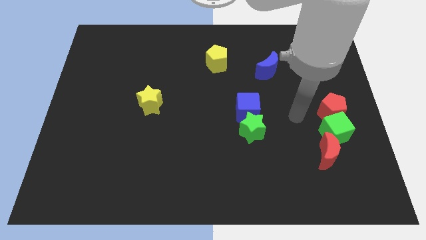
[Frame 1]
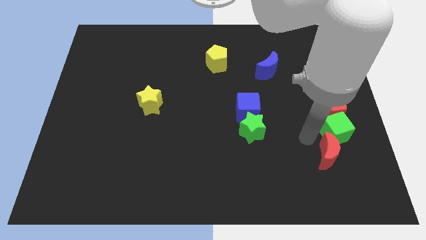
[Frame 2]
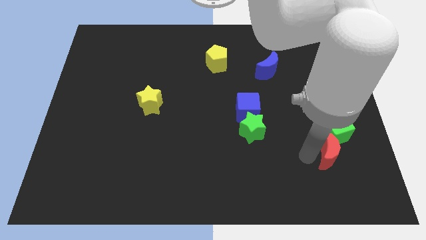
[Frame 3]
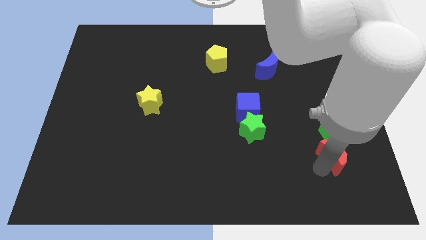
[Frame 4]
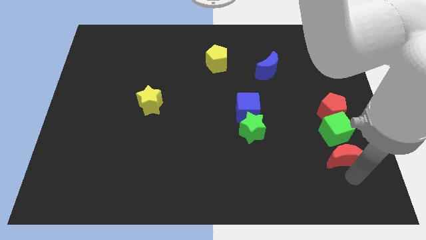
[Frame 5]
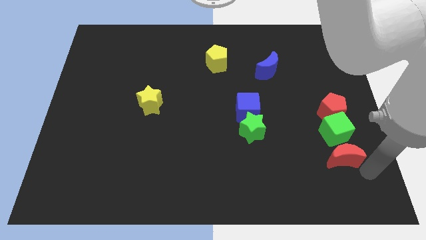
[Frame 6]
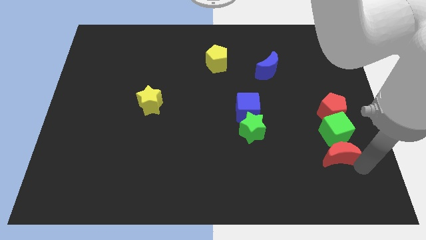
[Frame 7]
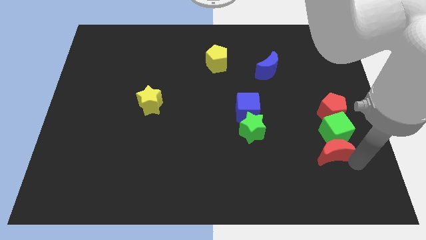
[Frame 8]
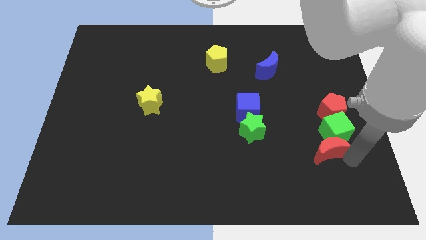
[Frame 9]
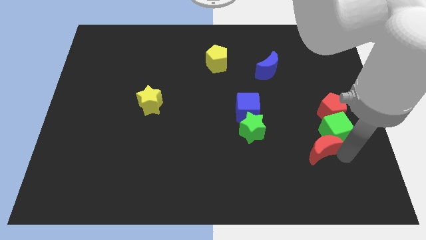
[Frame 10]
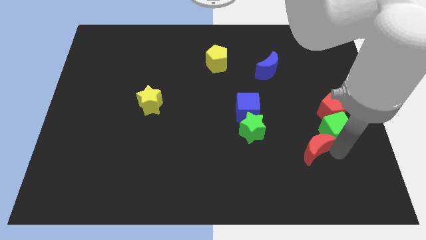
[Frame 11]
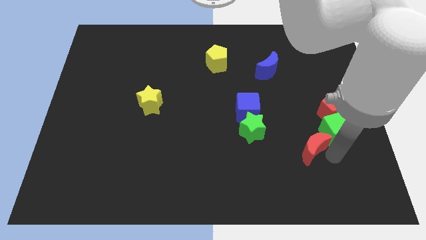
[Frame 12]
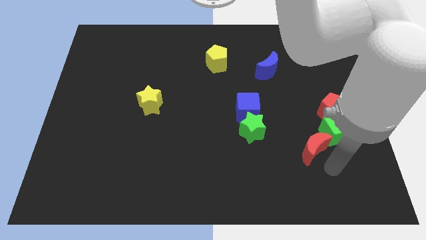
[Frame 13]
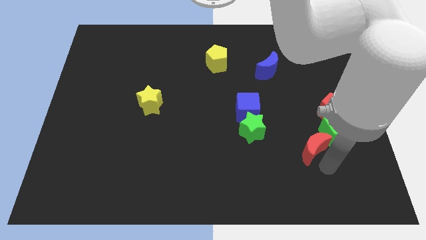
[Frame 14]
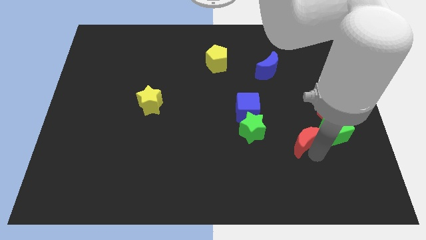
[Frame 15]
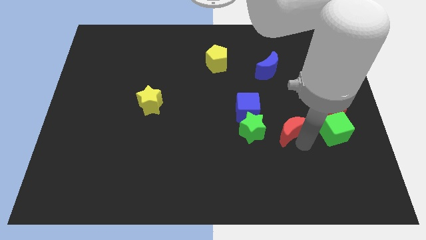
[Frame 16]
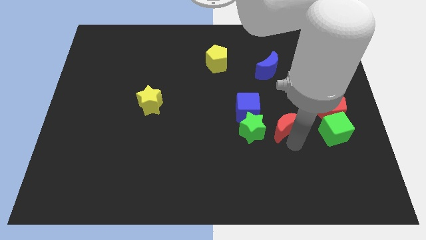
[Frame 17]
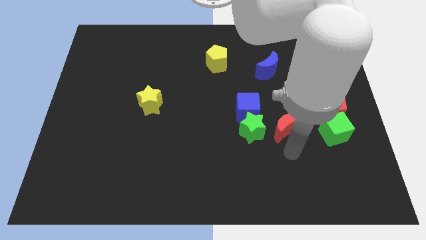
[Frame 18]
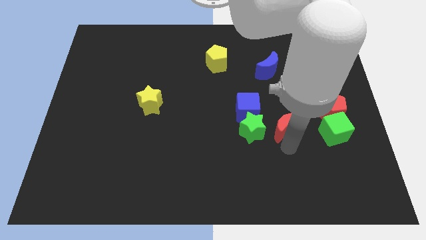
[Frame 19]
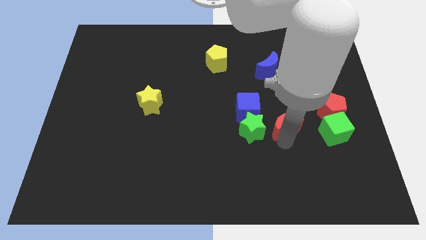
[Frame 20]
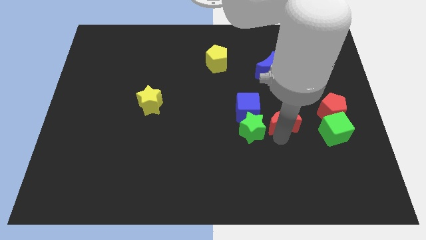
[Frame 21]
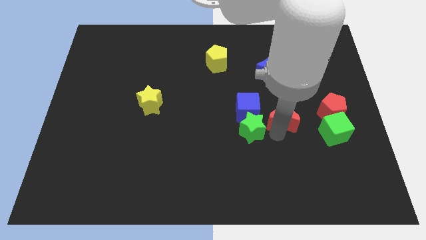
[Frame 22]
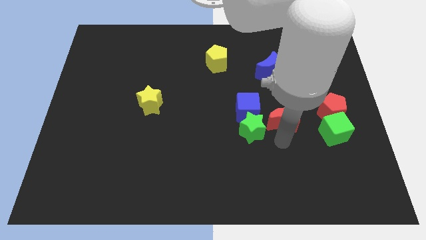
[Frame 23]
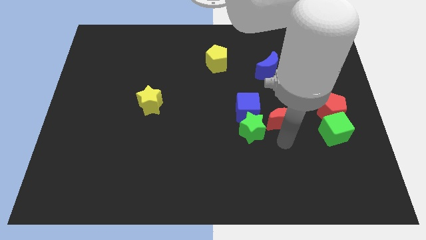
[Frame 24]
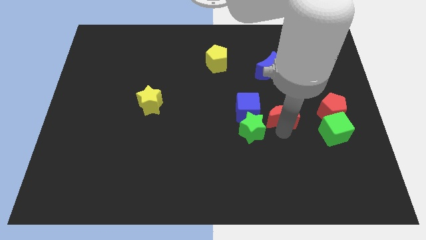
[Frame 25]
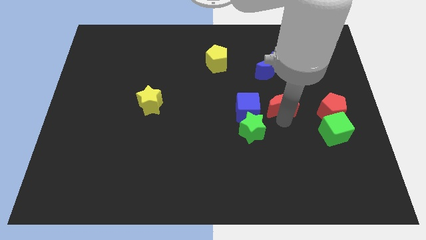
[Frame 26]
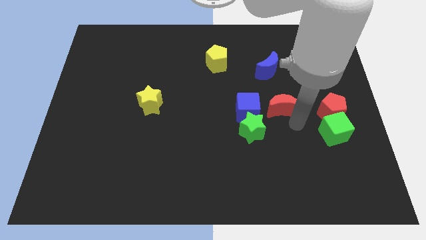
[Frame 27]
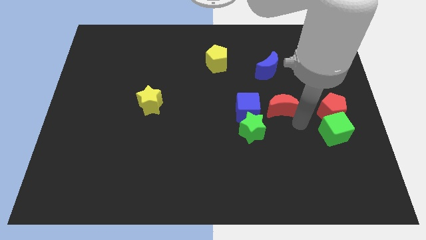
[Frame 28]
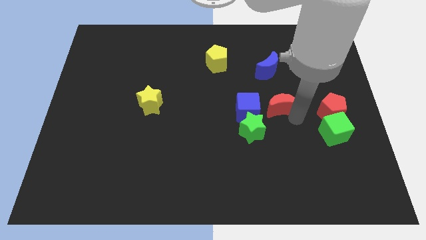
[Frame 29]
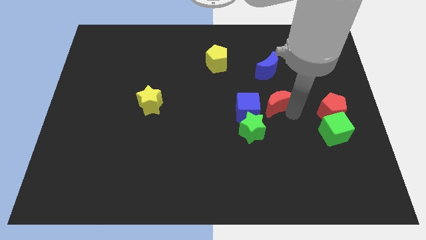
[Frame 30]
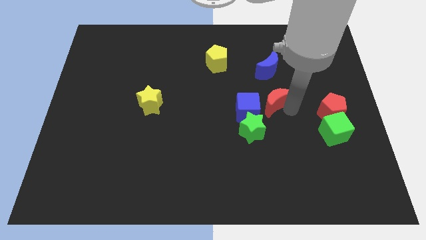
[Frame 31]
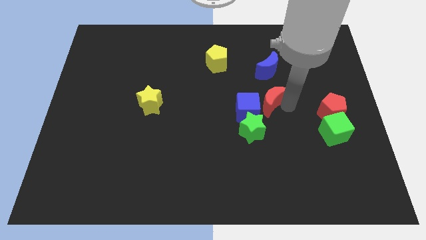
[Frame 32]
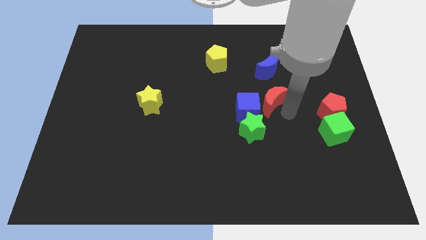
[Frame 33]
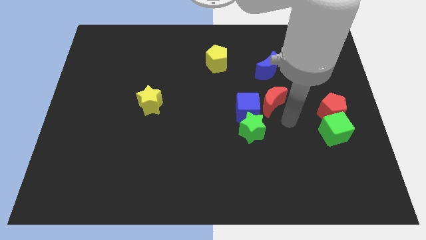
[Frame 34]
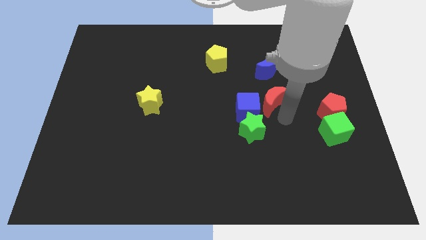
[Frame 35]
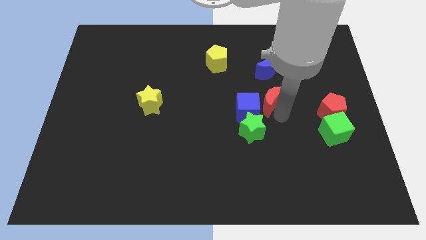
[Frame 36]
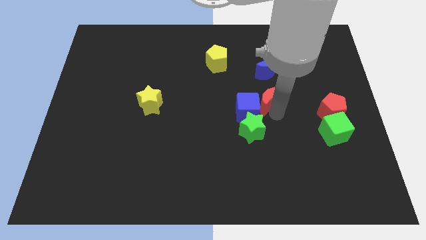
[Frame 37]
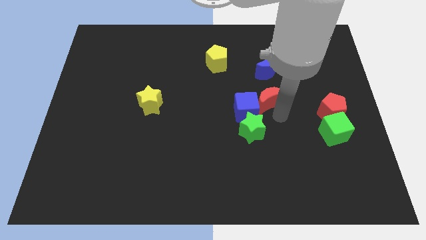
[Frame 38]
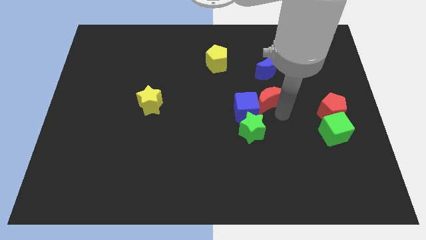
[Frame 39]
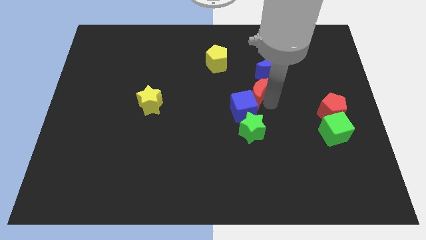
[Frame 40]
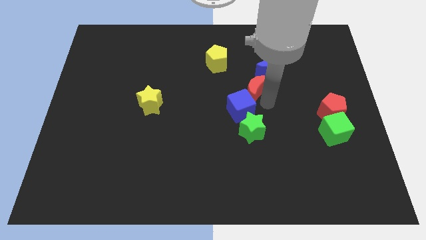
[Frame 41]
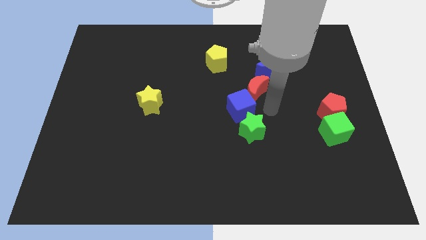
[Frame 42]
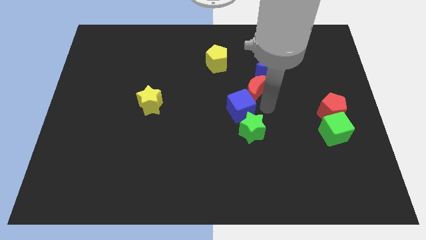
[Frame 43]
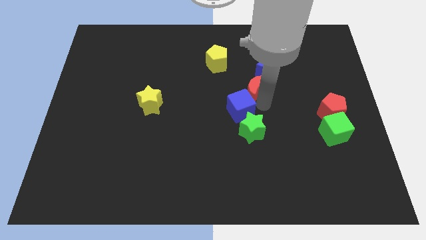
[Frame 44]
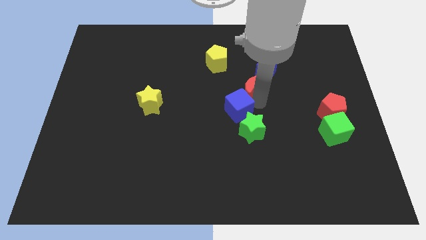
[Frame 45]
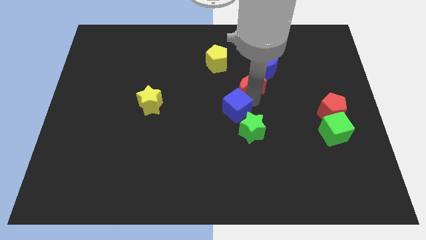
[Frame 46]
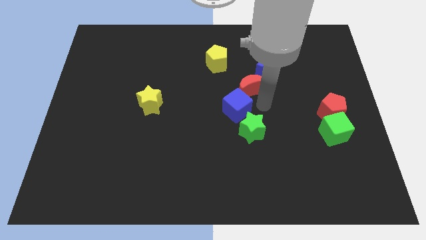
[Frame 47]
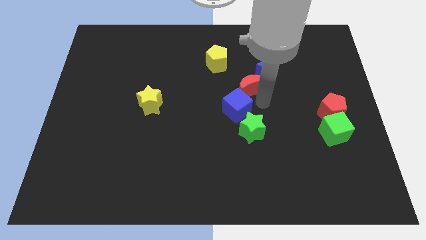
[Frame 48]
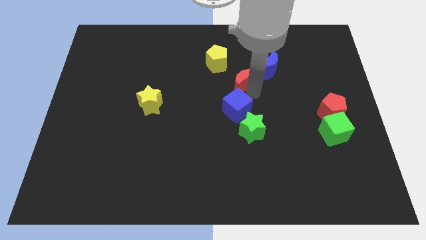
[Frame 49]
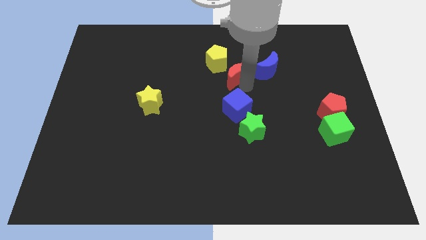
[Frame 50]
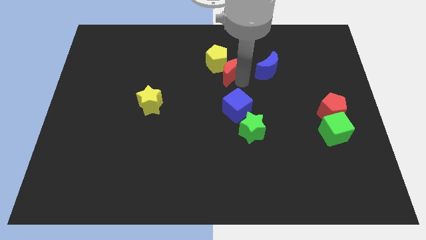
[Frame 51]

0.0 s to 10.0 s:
push the red moon towards the yellow pentagon

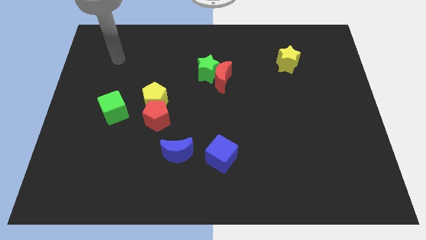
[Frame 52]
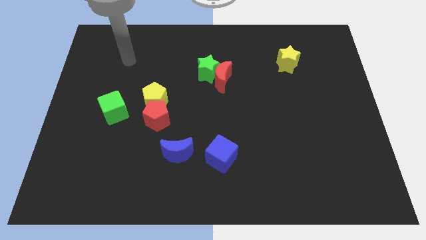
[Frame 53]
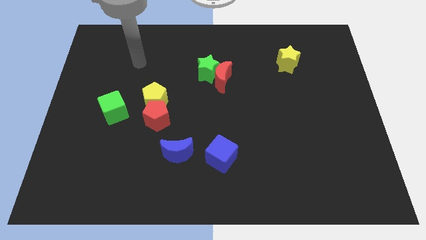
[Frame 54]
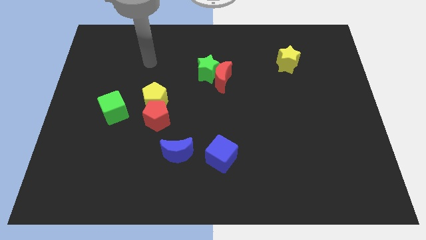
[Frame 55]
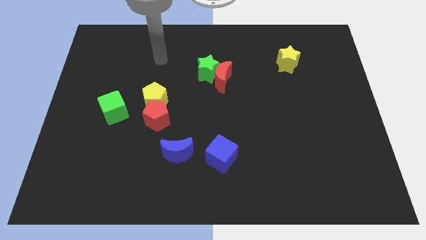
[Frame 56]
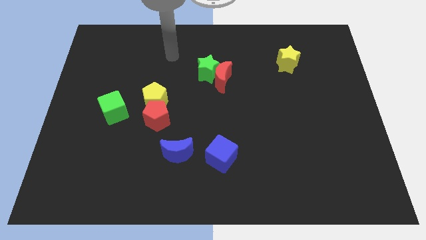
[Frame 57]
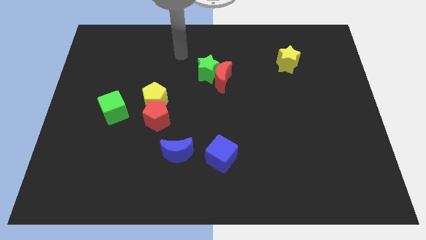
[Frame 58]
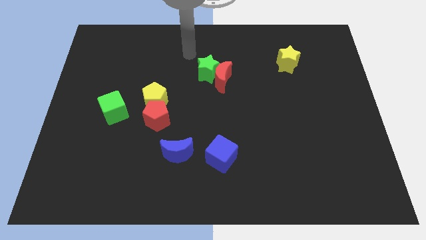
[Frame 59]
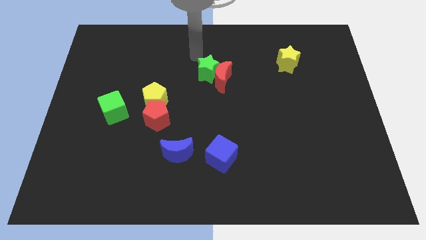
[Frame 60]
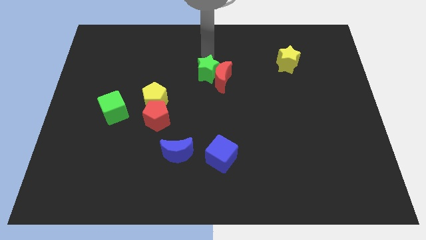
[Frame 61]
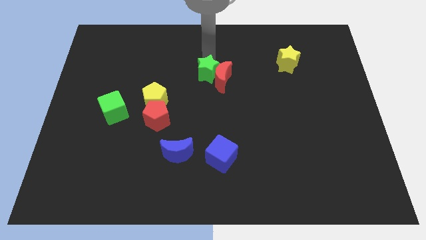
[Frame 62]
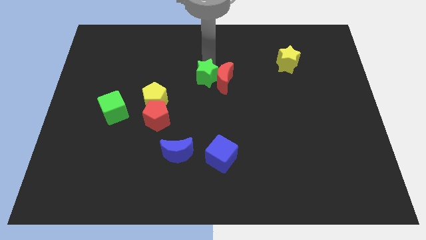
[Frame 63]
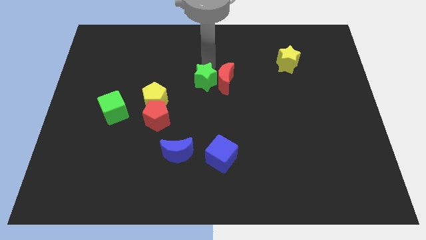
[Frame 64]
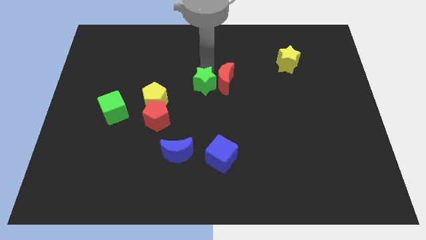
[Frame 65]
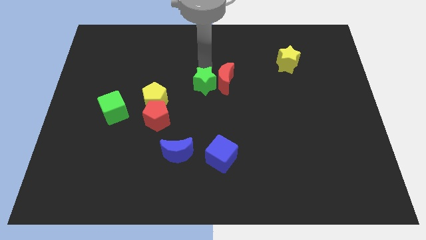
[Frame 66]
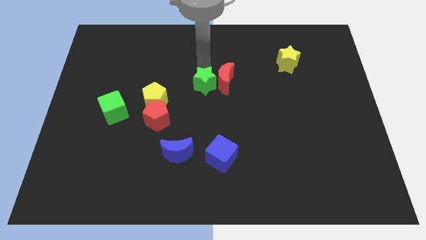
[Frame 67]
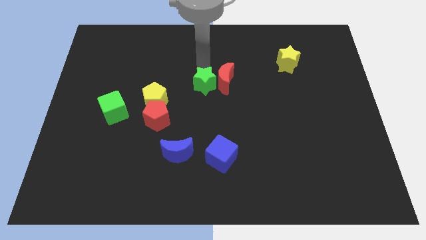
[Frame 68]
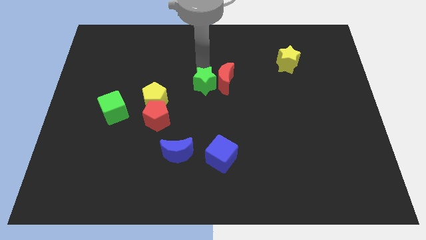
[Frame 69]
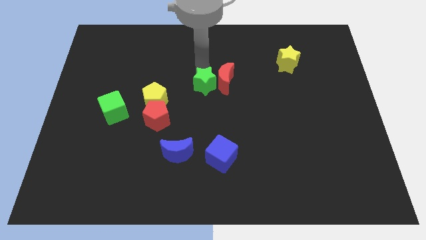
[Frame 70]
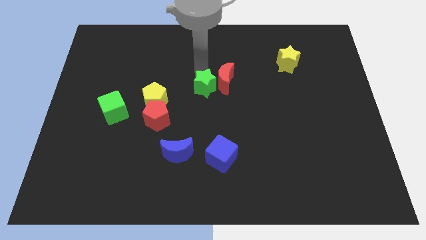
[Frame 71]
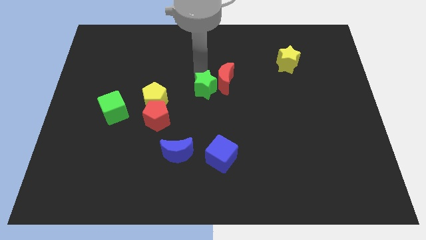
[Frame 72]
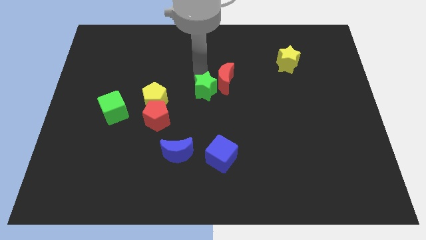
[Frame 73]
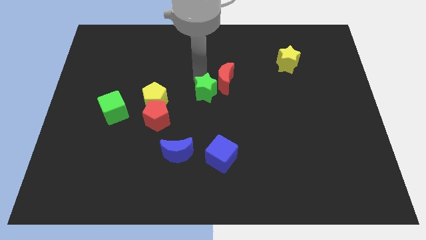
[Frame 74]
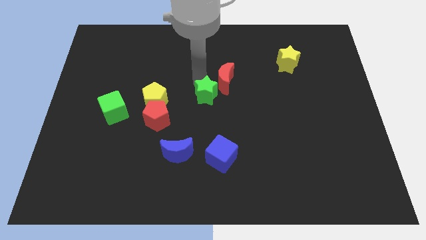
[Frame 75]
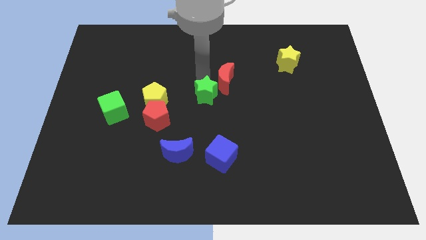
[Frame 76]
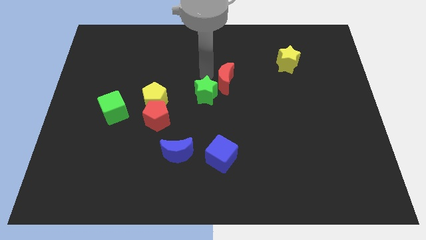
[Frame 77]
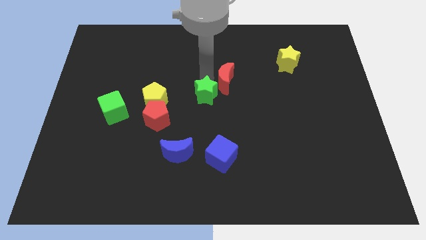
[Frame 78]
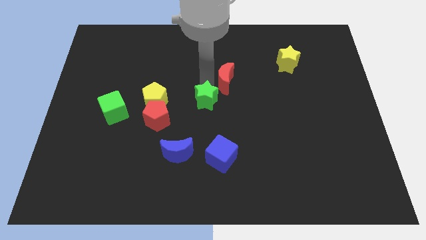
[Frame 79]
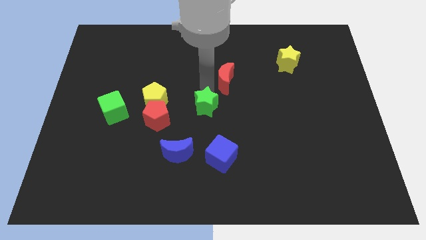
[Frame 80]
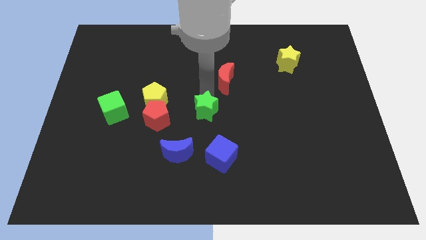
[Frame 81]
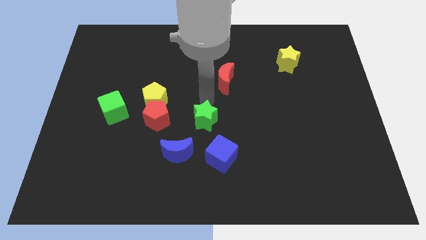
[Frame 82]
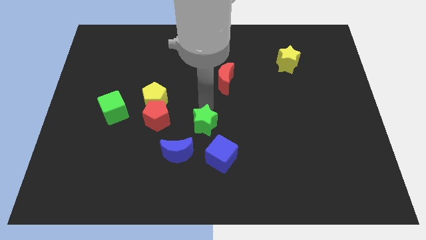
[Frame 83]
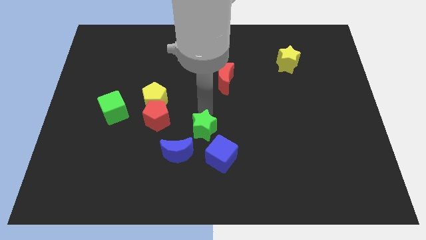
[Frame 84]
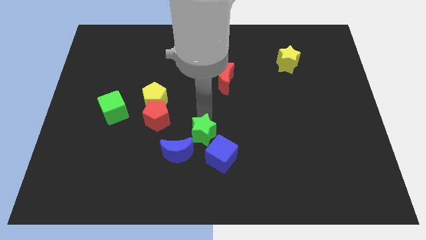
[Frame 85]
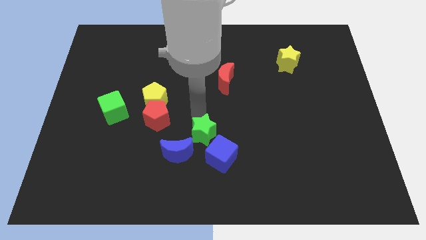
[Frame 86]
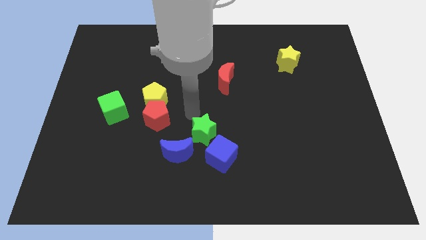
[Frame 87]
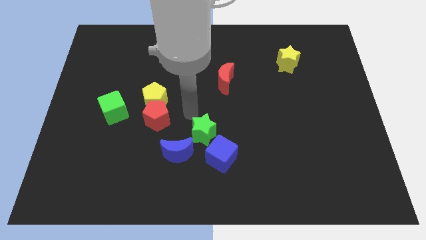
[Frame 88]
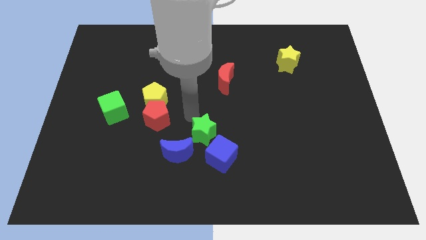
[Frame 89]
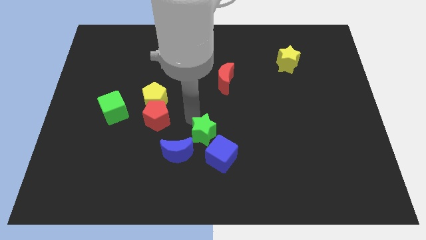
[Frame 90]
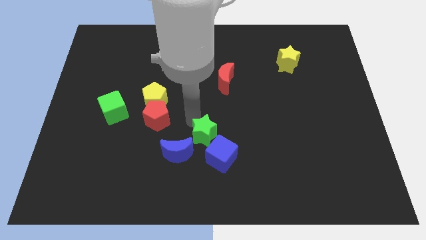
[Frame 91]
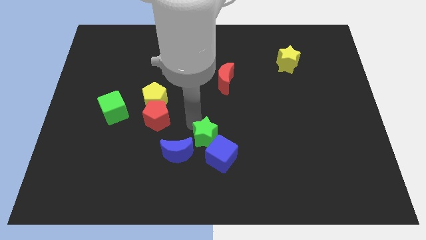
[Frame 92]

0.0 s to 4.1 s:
move the green star to the blue cube
